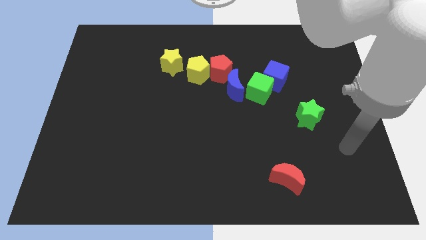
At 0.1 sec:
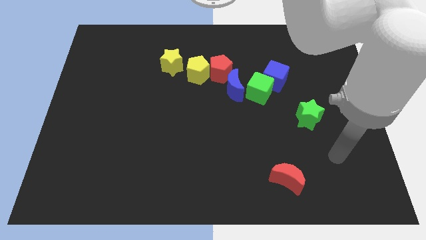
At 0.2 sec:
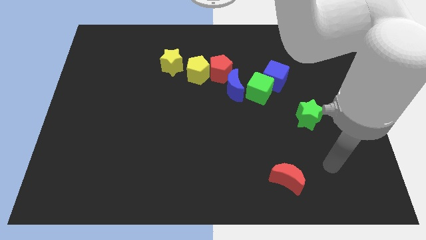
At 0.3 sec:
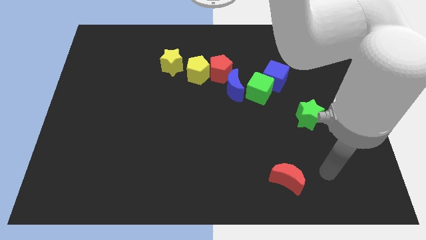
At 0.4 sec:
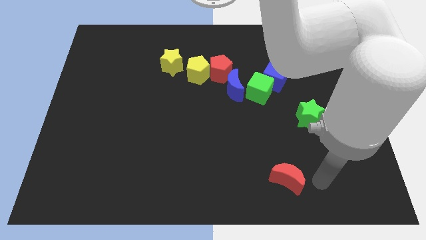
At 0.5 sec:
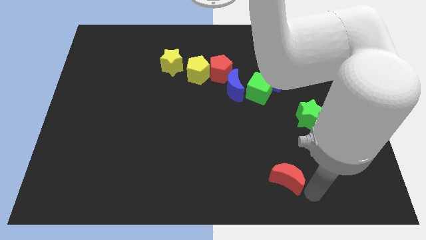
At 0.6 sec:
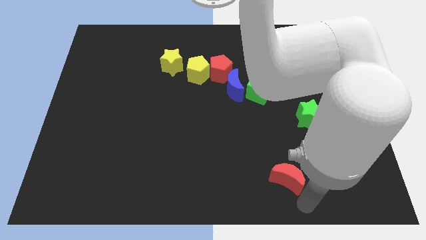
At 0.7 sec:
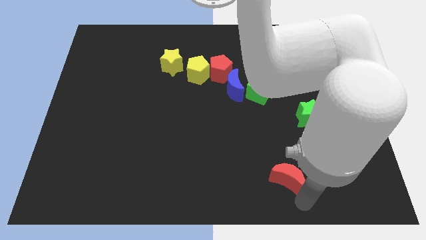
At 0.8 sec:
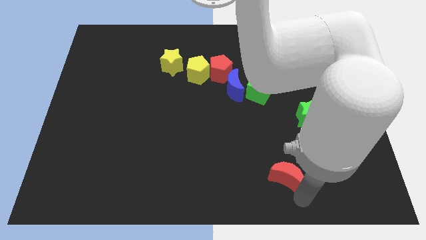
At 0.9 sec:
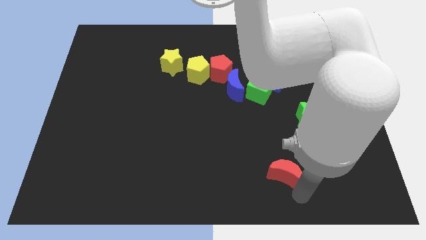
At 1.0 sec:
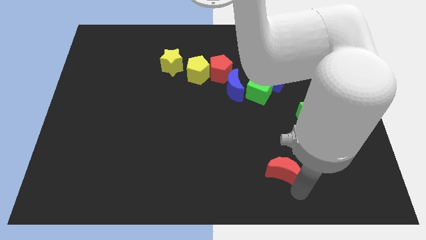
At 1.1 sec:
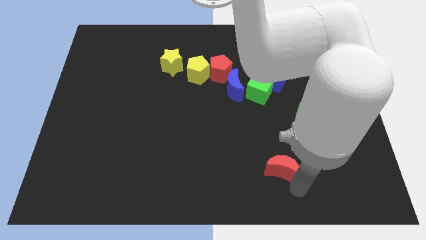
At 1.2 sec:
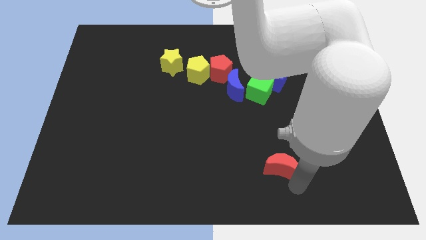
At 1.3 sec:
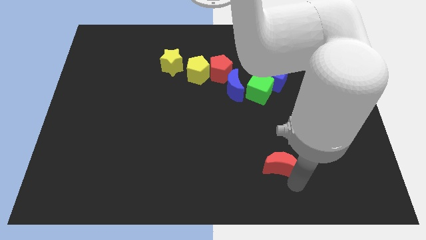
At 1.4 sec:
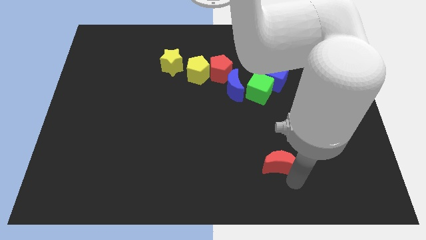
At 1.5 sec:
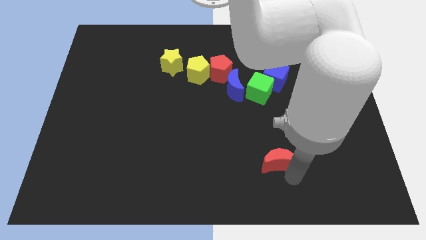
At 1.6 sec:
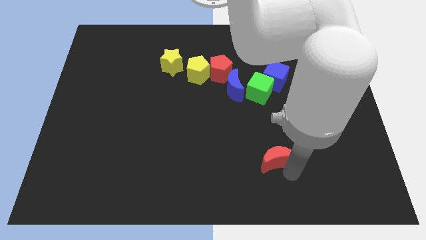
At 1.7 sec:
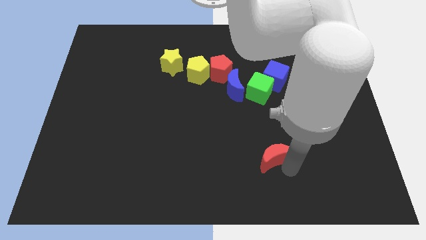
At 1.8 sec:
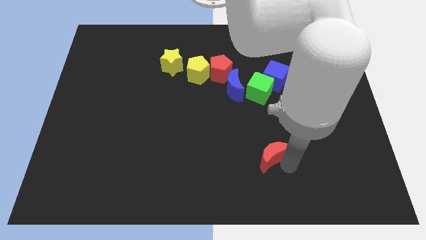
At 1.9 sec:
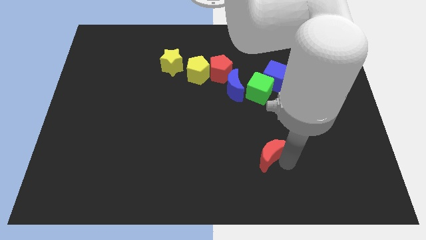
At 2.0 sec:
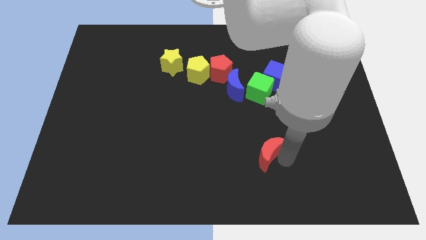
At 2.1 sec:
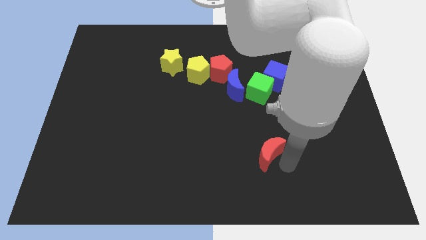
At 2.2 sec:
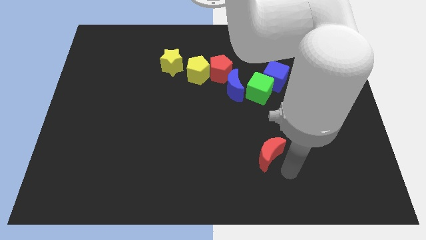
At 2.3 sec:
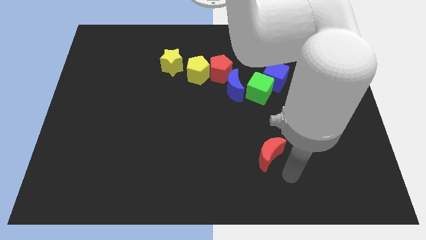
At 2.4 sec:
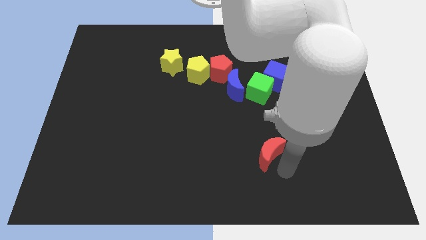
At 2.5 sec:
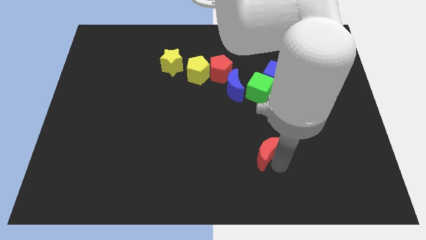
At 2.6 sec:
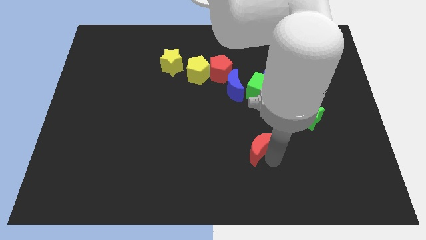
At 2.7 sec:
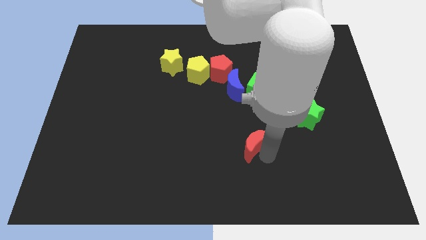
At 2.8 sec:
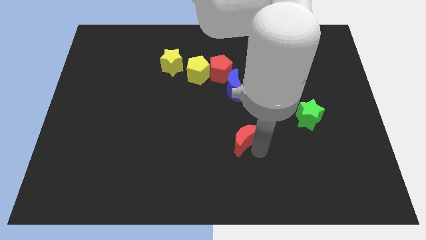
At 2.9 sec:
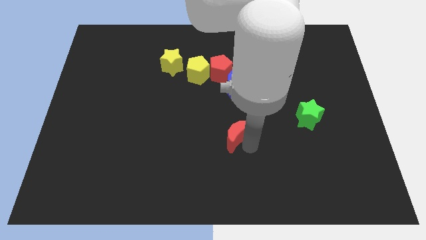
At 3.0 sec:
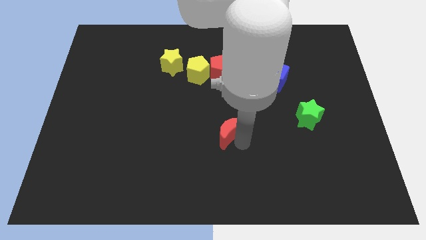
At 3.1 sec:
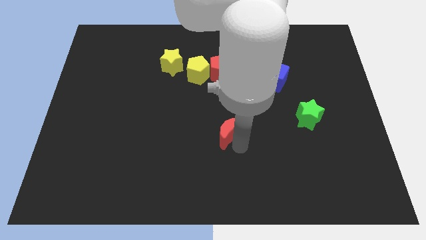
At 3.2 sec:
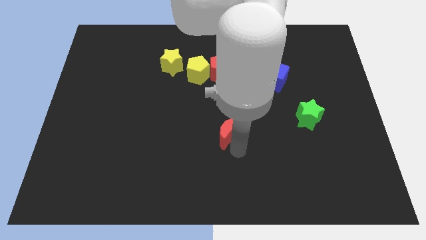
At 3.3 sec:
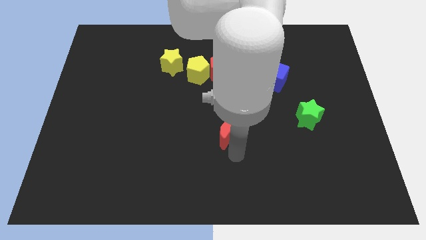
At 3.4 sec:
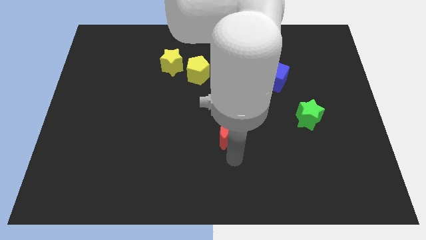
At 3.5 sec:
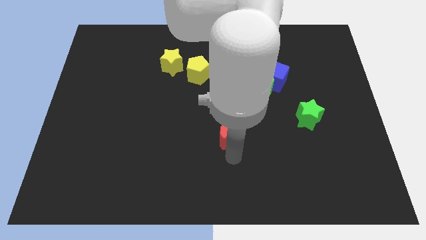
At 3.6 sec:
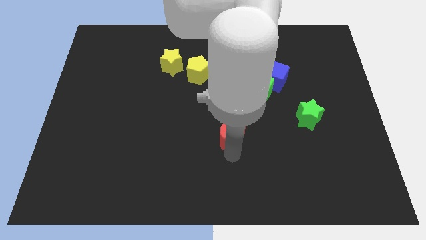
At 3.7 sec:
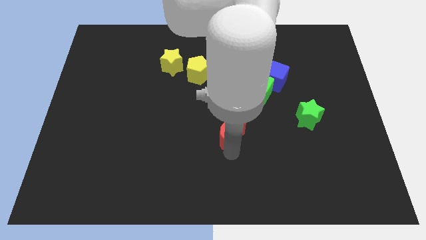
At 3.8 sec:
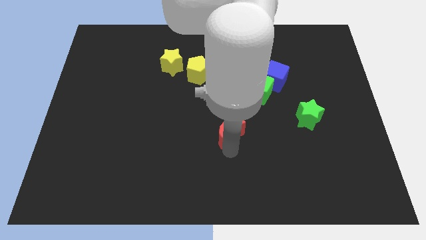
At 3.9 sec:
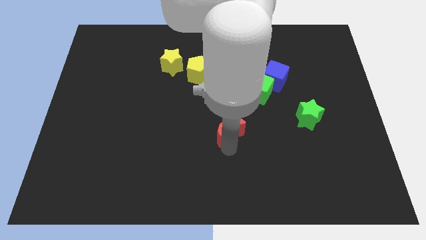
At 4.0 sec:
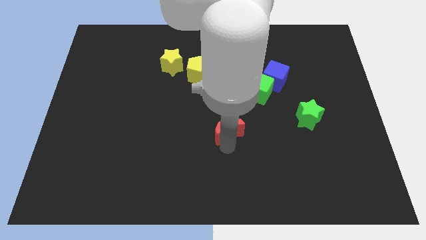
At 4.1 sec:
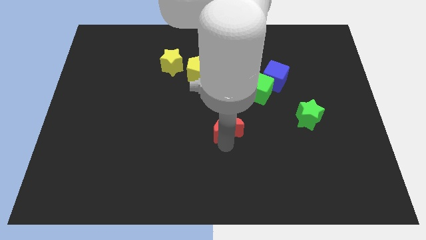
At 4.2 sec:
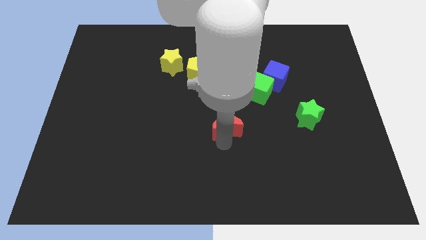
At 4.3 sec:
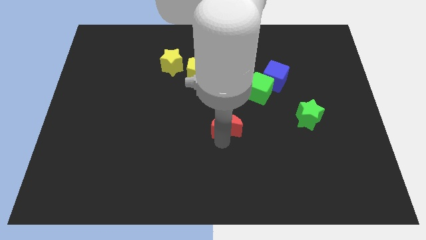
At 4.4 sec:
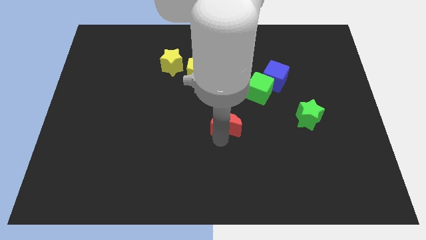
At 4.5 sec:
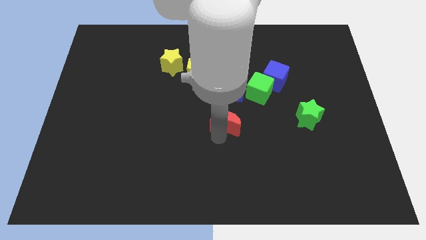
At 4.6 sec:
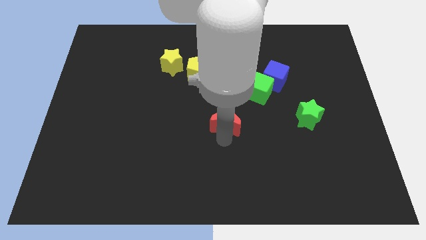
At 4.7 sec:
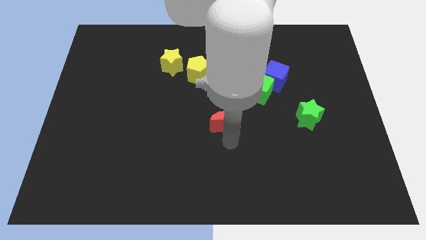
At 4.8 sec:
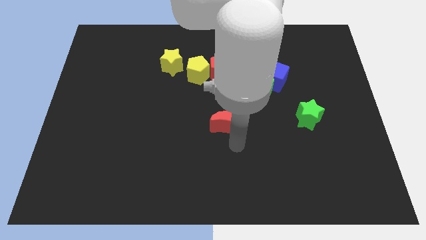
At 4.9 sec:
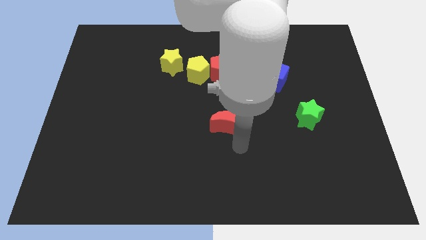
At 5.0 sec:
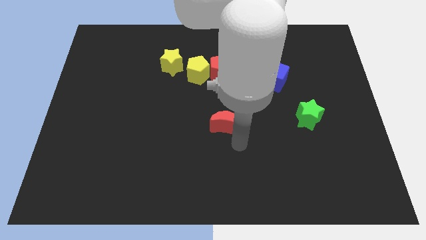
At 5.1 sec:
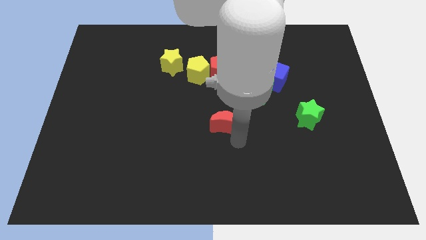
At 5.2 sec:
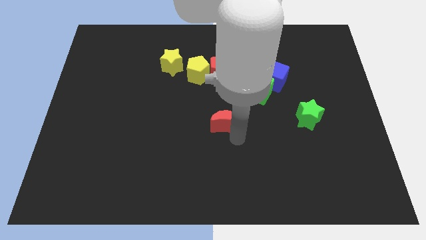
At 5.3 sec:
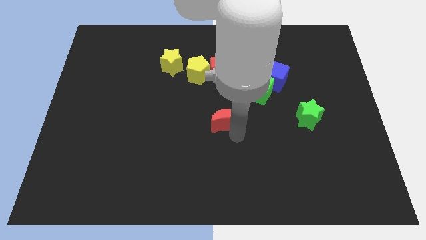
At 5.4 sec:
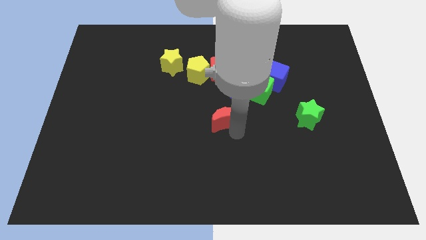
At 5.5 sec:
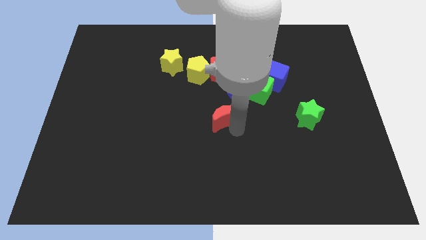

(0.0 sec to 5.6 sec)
put the red moon diagonally down and to the left of the blue moon

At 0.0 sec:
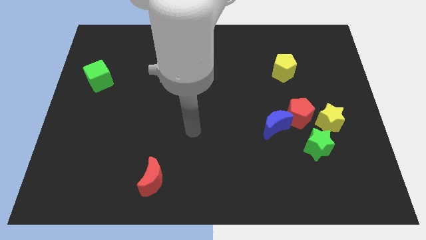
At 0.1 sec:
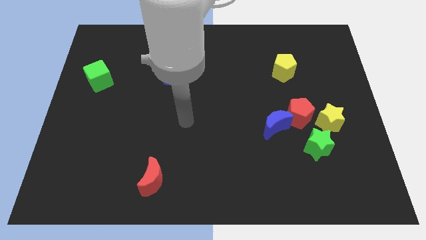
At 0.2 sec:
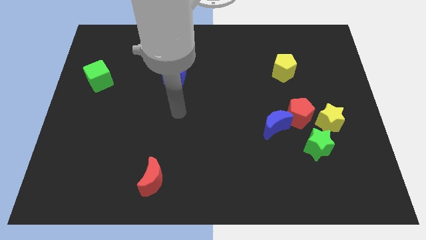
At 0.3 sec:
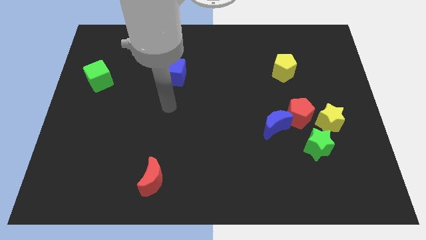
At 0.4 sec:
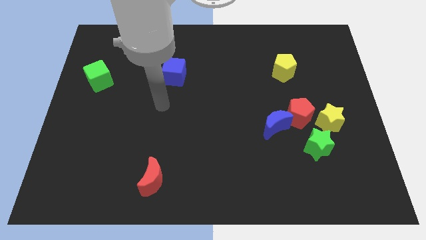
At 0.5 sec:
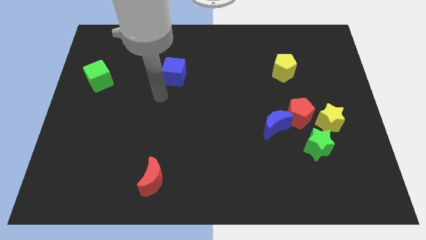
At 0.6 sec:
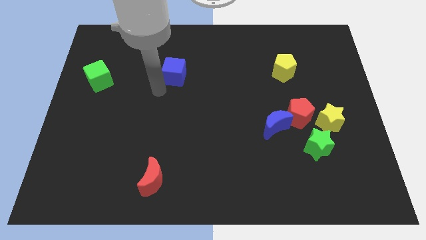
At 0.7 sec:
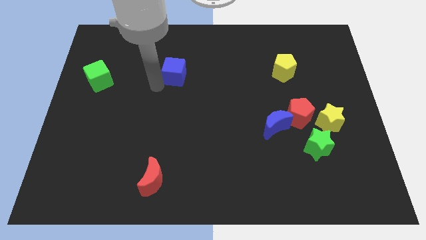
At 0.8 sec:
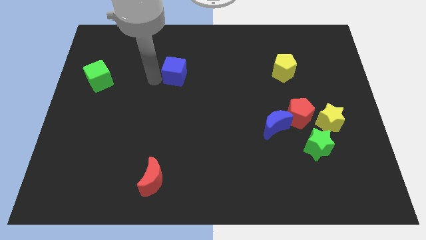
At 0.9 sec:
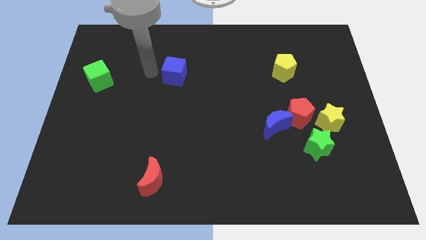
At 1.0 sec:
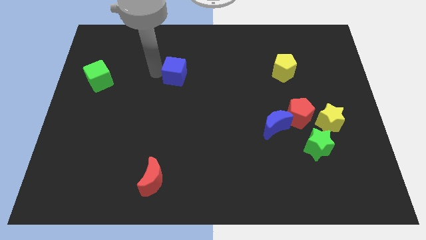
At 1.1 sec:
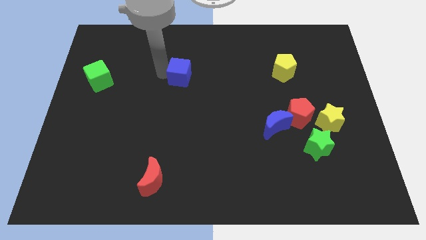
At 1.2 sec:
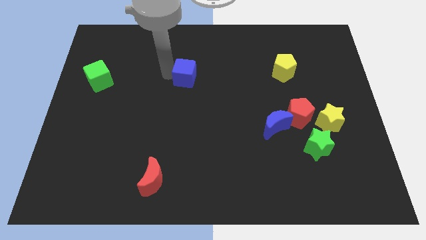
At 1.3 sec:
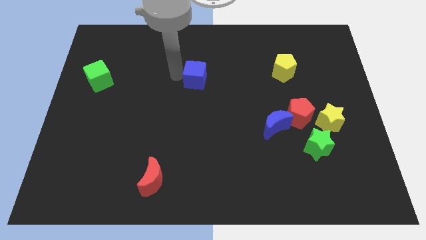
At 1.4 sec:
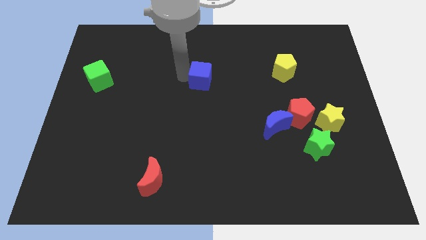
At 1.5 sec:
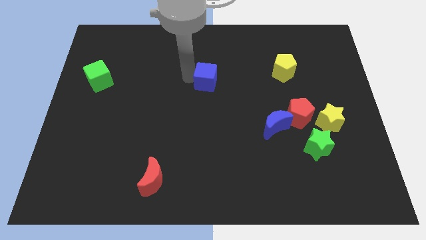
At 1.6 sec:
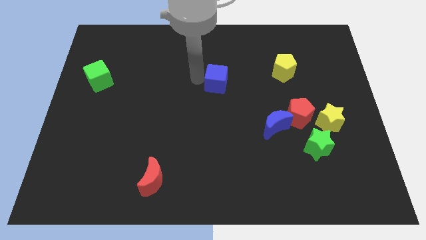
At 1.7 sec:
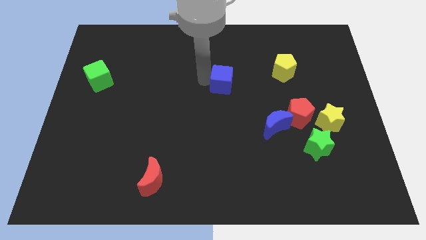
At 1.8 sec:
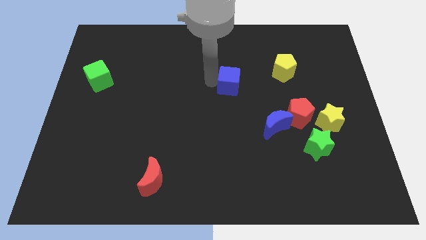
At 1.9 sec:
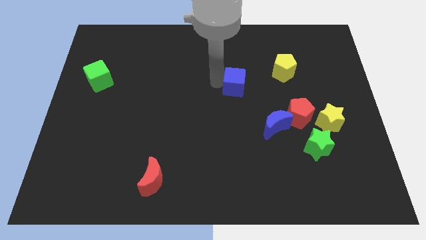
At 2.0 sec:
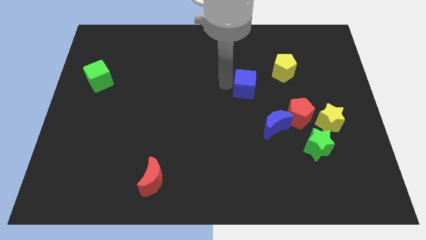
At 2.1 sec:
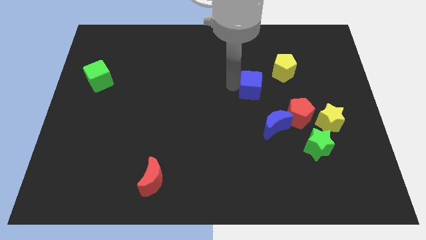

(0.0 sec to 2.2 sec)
slide the blue cube to the top side of the blue moon
